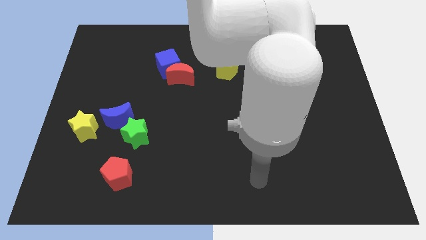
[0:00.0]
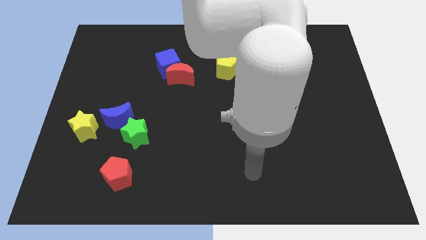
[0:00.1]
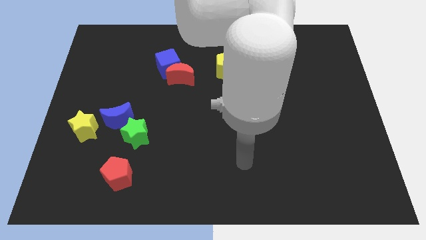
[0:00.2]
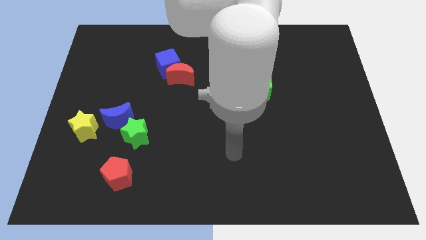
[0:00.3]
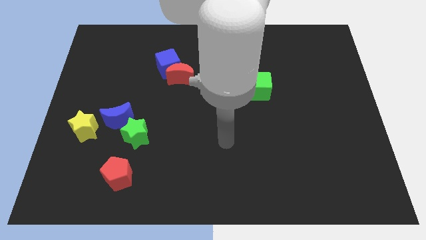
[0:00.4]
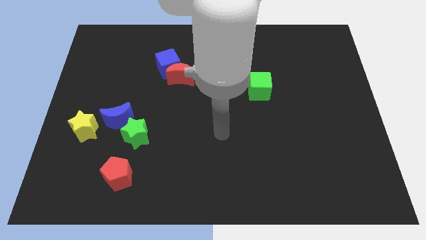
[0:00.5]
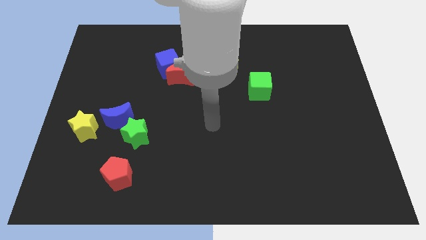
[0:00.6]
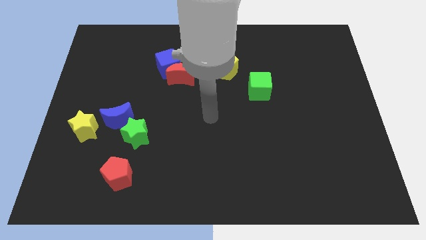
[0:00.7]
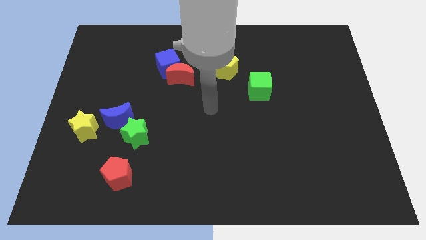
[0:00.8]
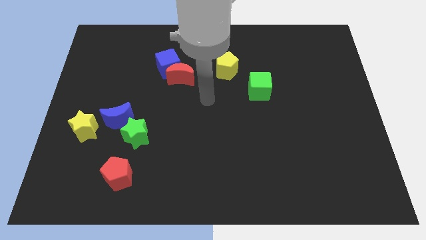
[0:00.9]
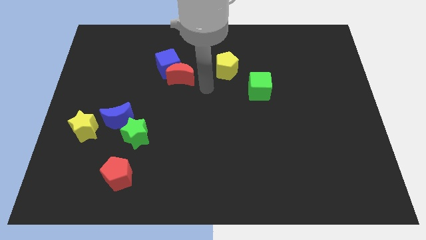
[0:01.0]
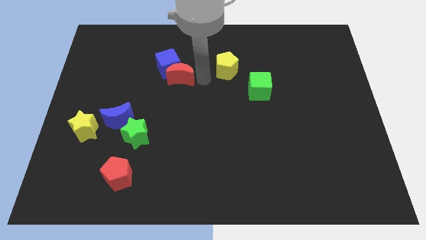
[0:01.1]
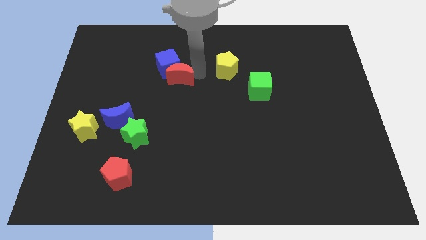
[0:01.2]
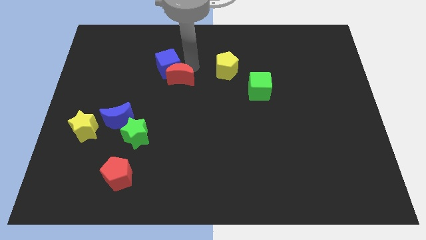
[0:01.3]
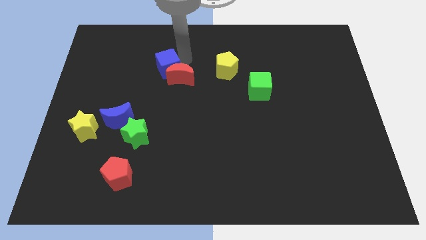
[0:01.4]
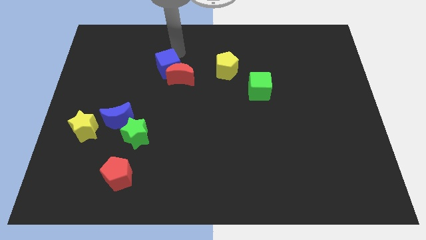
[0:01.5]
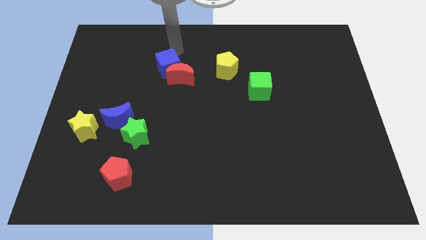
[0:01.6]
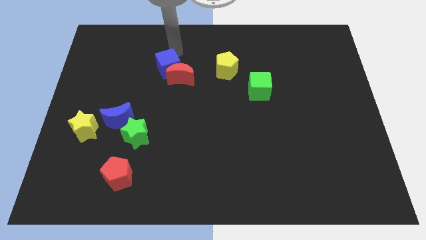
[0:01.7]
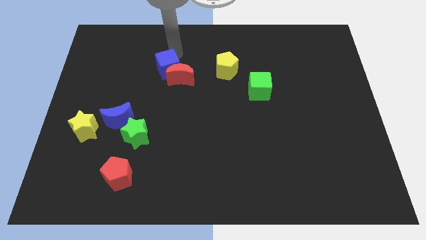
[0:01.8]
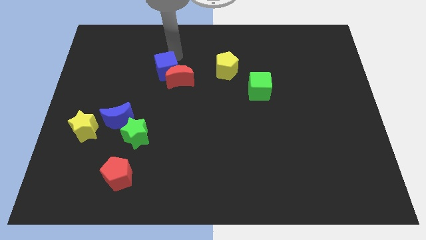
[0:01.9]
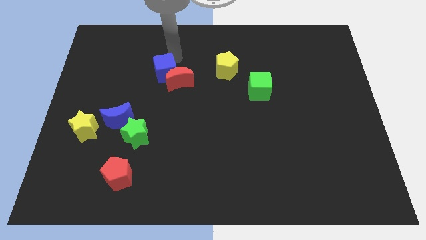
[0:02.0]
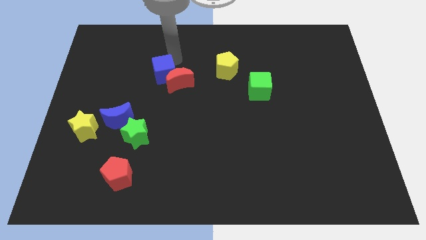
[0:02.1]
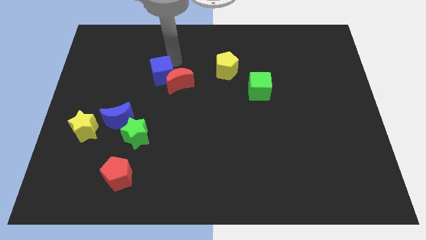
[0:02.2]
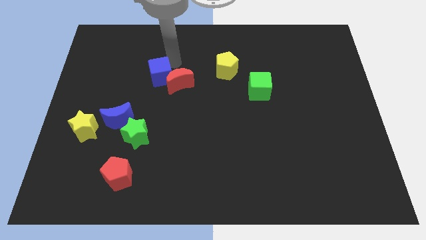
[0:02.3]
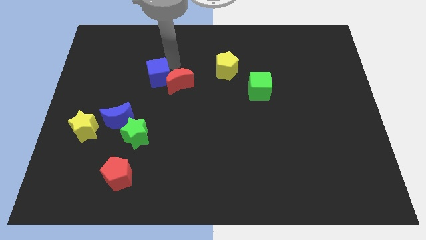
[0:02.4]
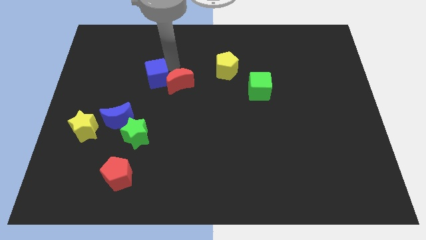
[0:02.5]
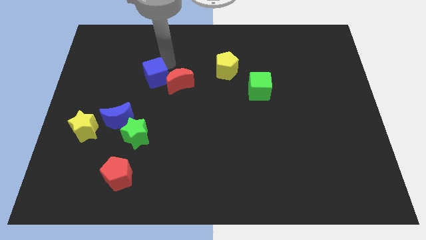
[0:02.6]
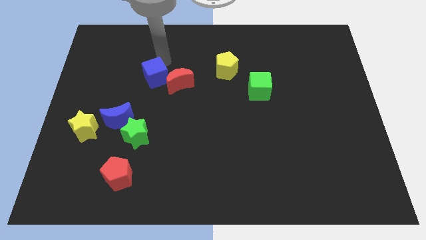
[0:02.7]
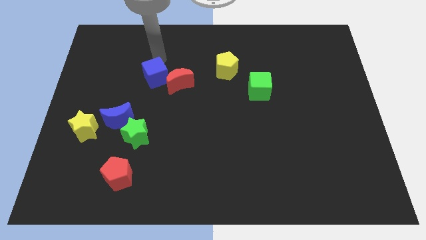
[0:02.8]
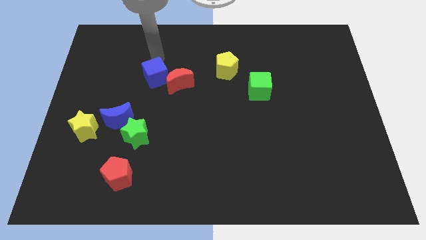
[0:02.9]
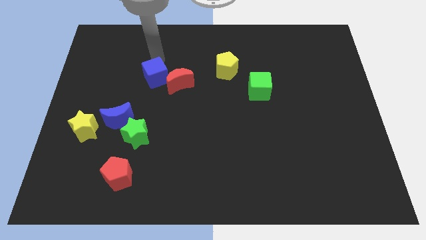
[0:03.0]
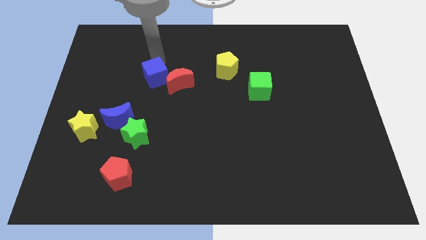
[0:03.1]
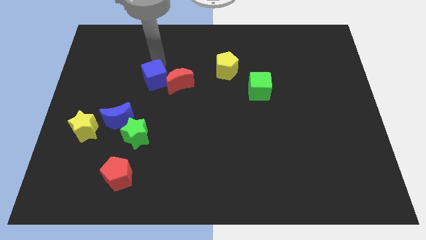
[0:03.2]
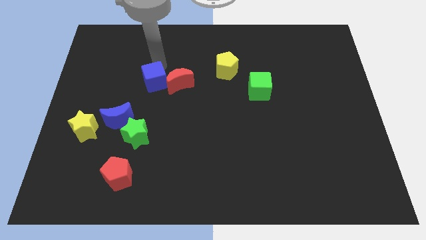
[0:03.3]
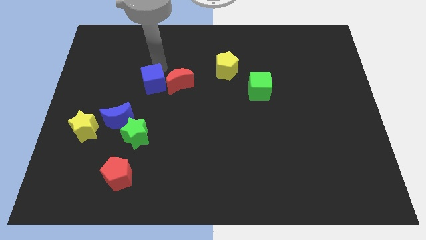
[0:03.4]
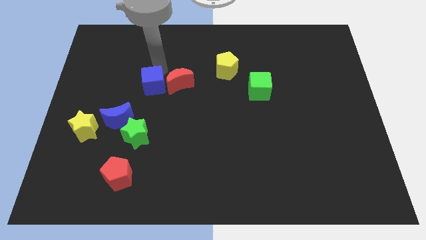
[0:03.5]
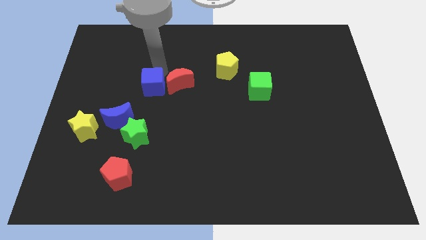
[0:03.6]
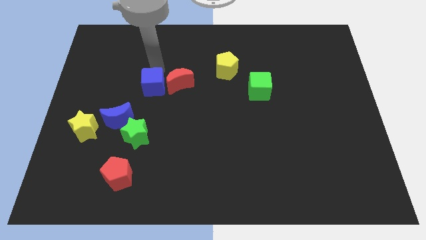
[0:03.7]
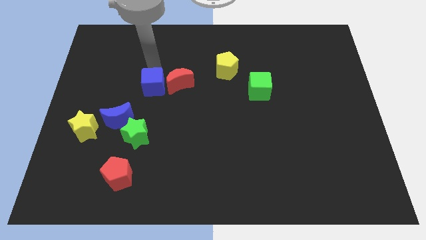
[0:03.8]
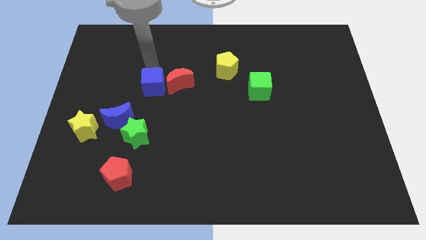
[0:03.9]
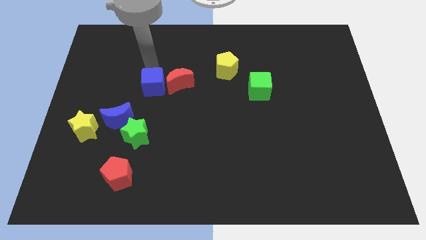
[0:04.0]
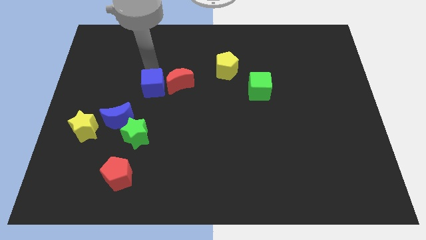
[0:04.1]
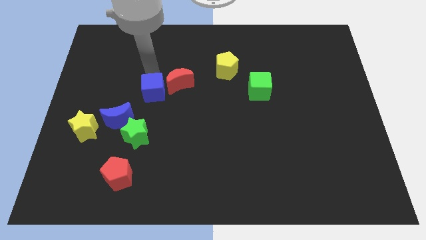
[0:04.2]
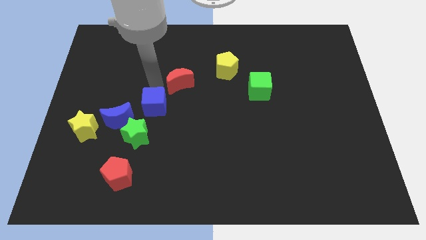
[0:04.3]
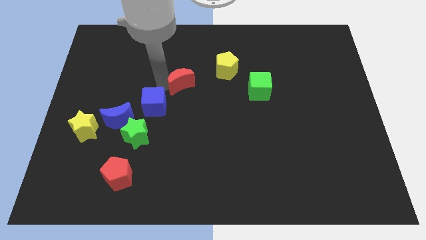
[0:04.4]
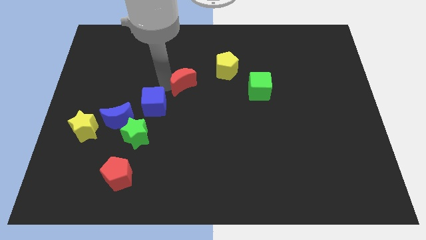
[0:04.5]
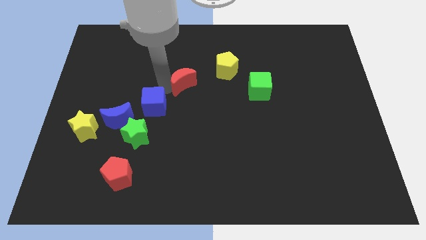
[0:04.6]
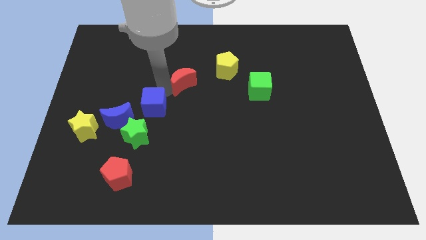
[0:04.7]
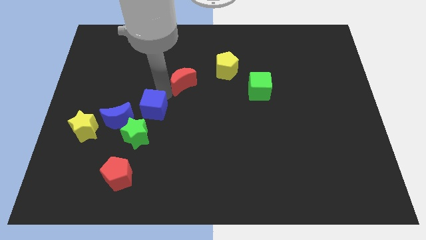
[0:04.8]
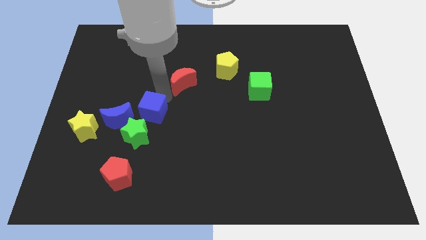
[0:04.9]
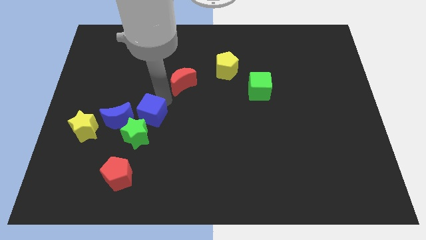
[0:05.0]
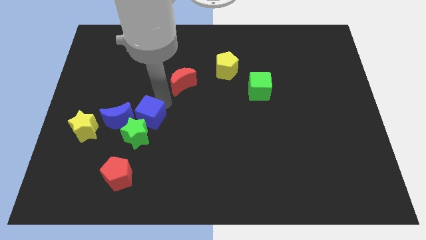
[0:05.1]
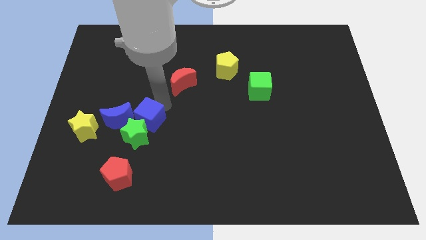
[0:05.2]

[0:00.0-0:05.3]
push the blue cube next to the green star

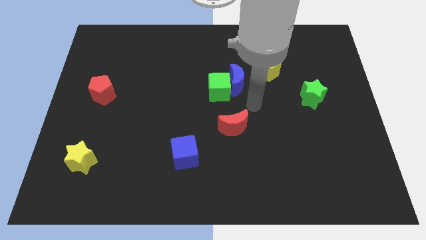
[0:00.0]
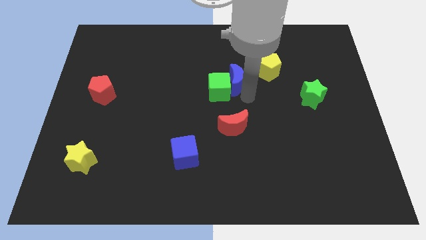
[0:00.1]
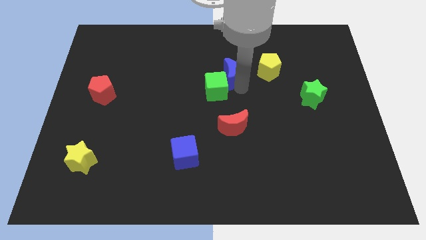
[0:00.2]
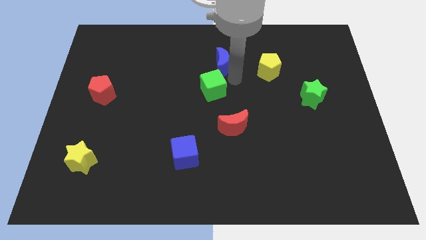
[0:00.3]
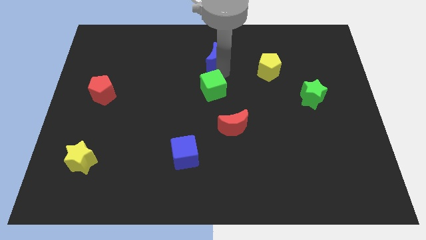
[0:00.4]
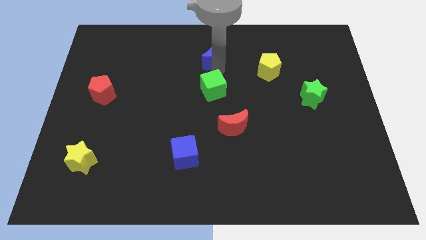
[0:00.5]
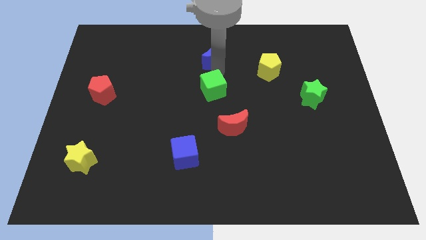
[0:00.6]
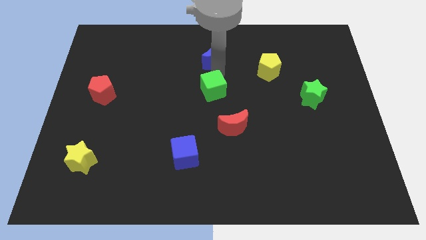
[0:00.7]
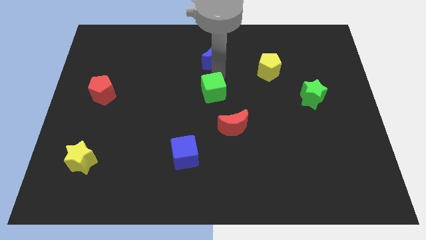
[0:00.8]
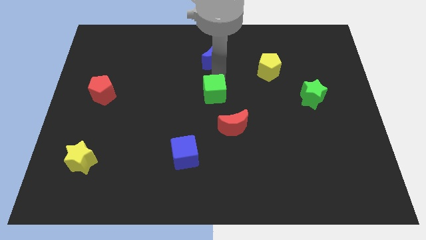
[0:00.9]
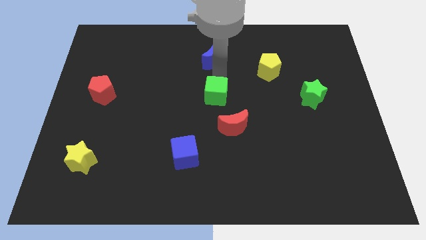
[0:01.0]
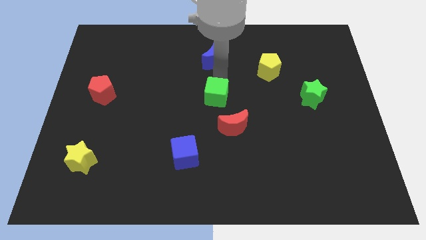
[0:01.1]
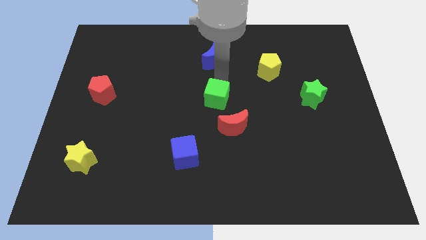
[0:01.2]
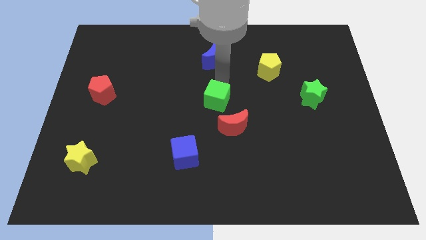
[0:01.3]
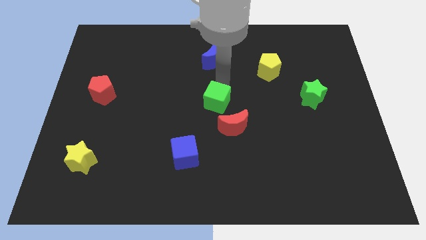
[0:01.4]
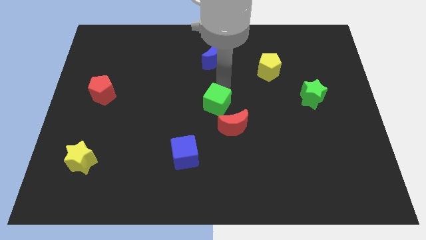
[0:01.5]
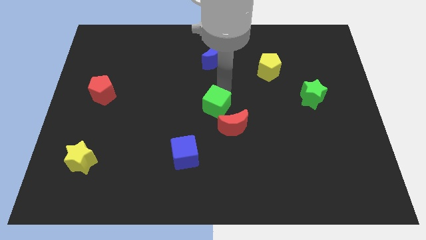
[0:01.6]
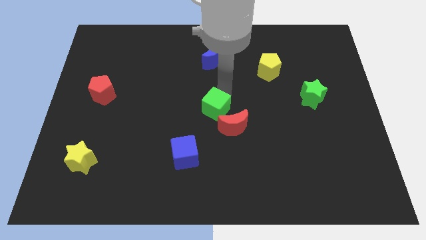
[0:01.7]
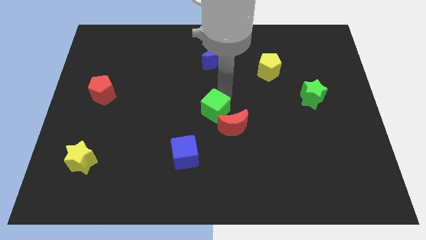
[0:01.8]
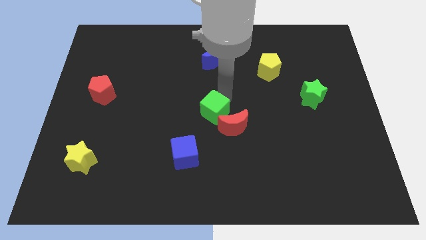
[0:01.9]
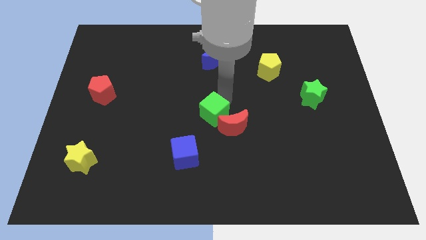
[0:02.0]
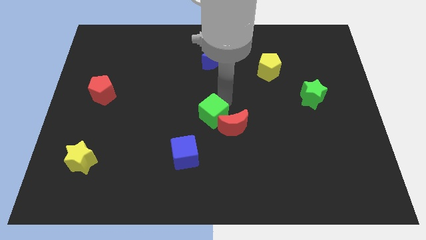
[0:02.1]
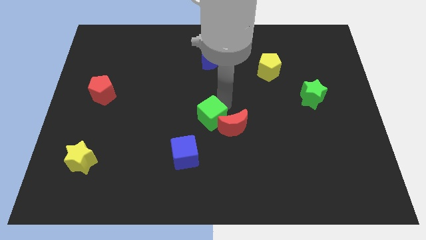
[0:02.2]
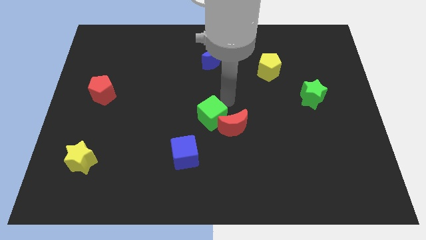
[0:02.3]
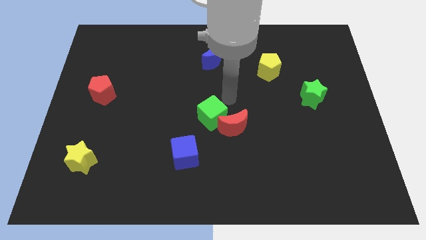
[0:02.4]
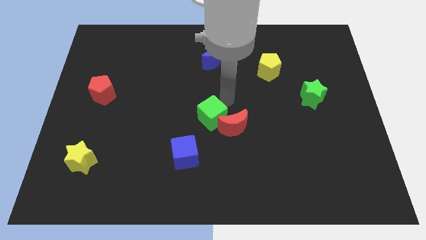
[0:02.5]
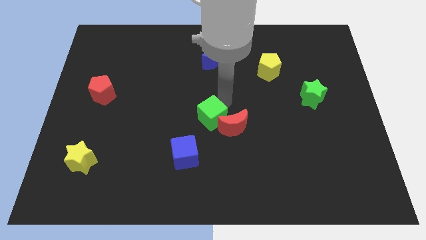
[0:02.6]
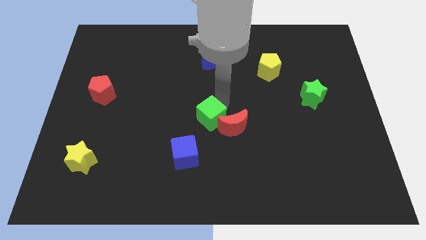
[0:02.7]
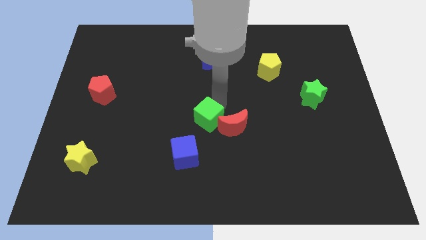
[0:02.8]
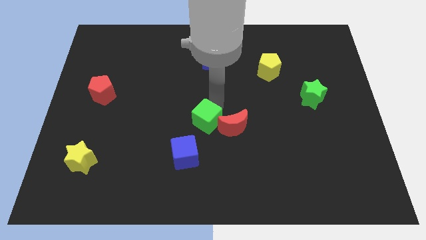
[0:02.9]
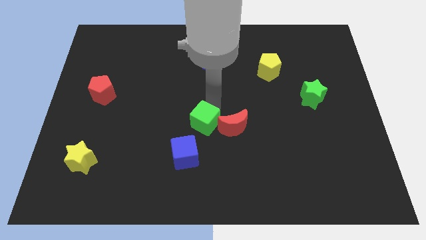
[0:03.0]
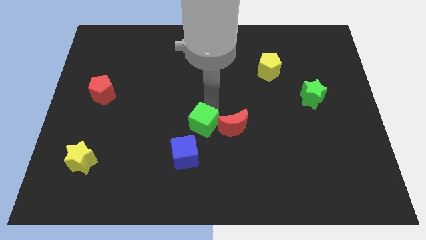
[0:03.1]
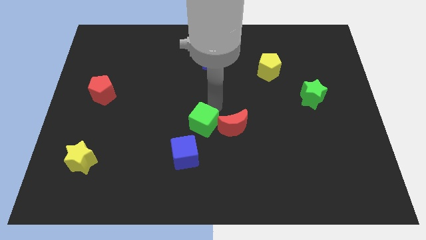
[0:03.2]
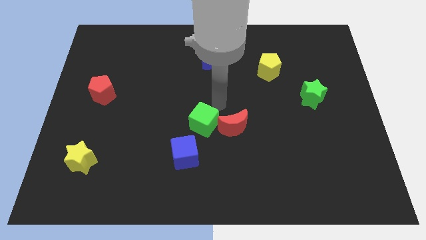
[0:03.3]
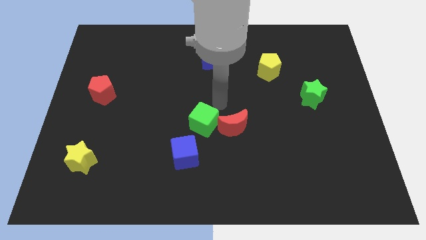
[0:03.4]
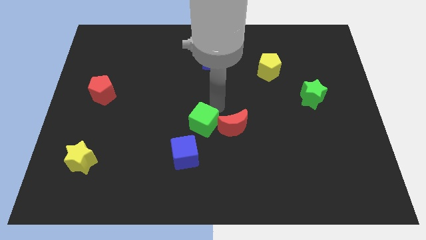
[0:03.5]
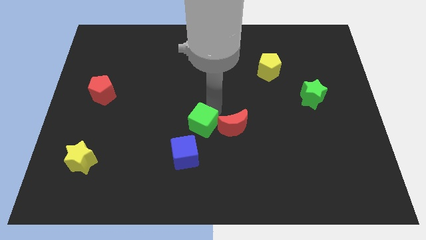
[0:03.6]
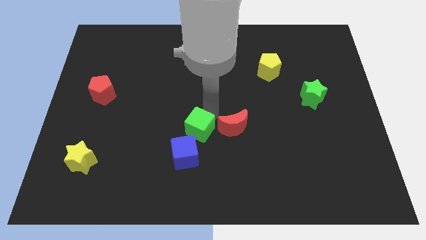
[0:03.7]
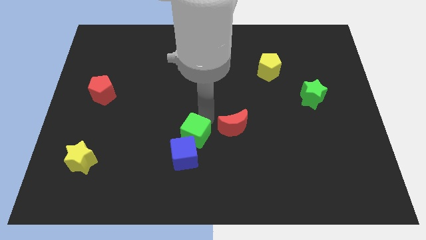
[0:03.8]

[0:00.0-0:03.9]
put the green cube close to the blue cube
